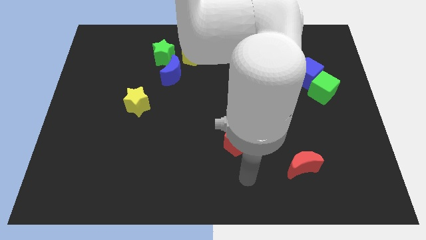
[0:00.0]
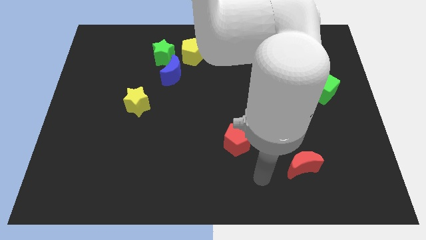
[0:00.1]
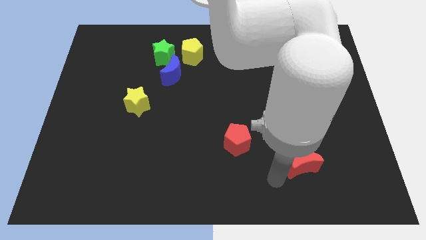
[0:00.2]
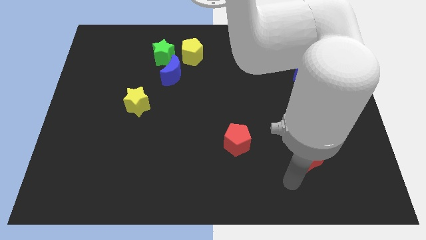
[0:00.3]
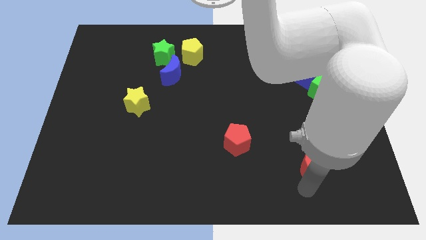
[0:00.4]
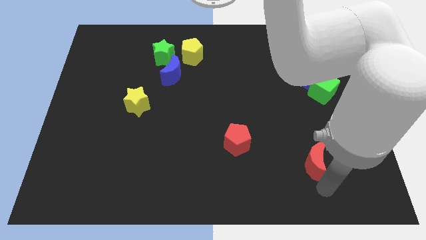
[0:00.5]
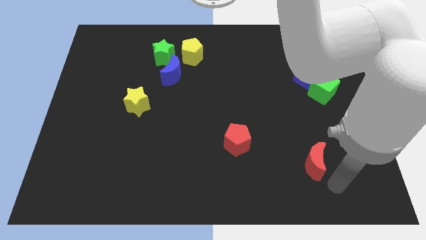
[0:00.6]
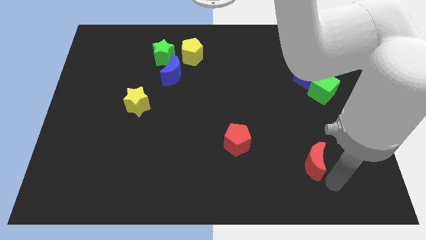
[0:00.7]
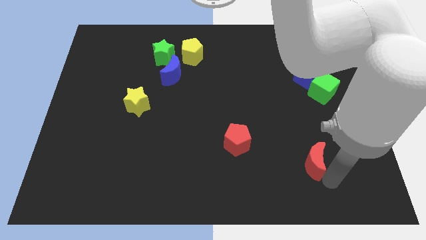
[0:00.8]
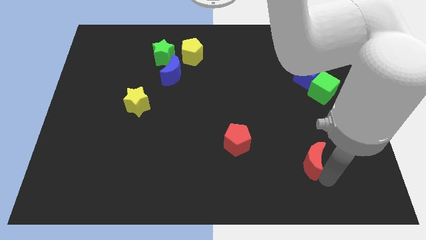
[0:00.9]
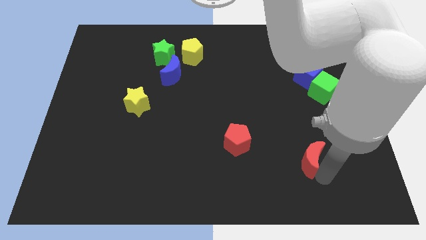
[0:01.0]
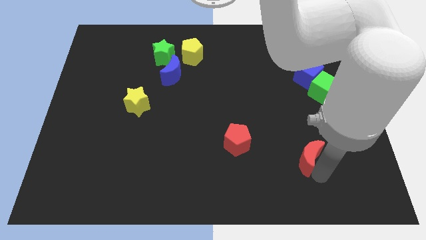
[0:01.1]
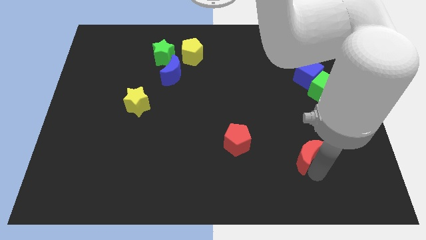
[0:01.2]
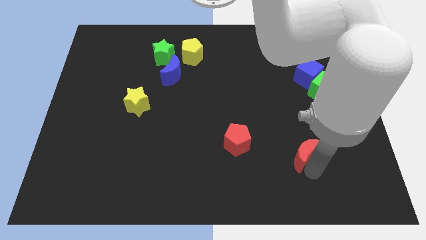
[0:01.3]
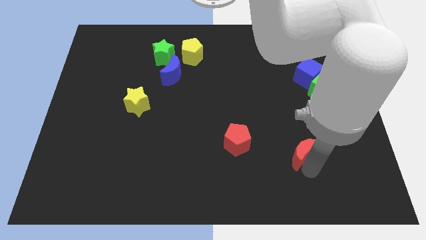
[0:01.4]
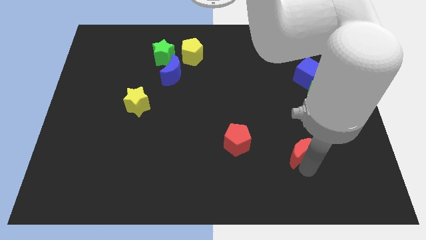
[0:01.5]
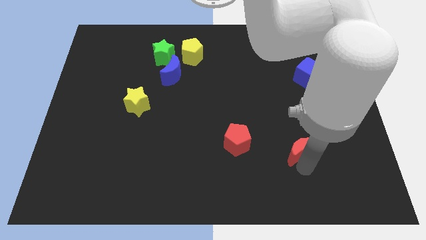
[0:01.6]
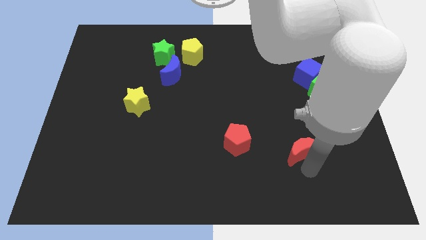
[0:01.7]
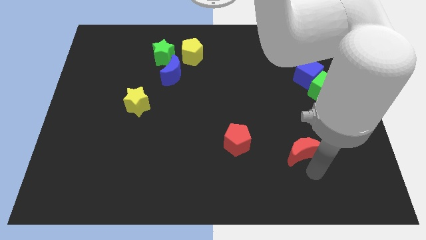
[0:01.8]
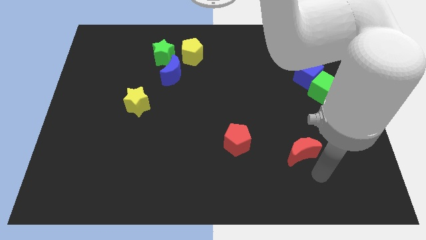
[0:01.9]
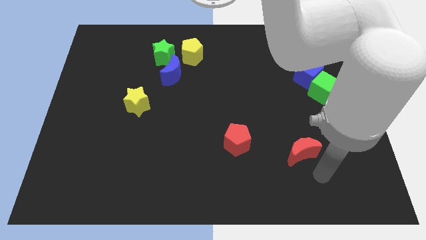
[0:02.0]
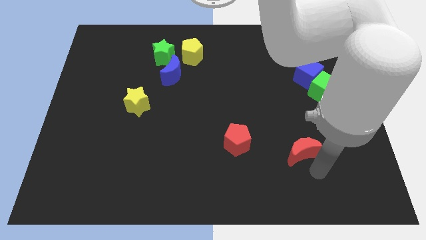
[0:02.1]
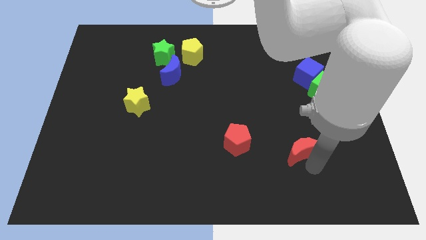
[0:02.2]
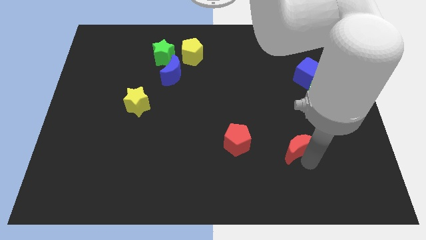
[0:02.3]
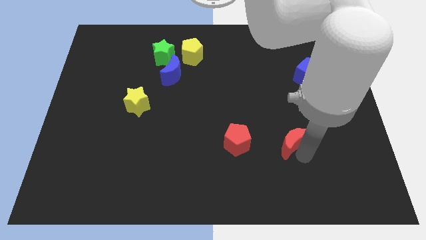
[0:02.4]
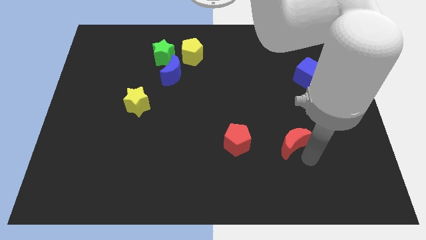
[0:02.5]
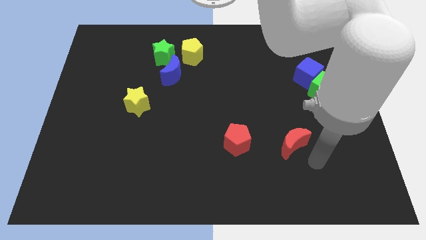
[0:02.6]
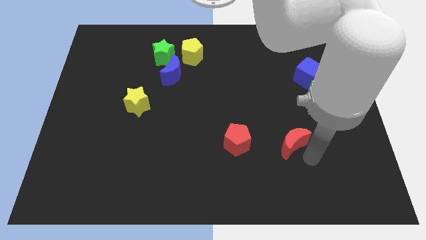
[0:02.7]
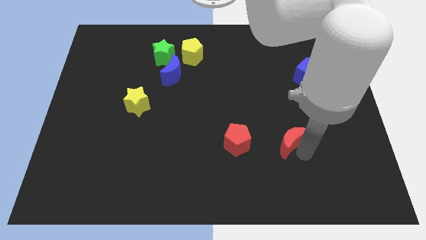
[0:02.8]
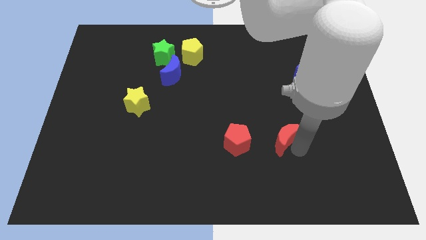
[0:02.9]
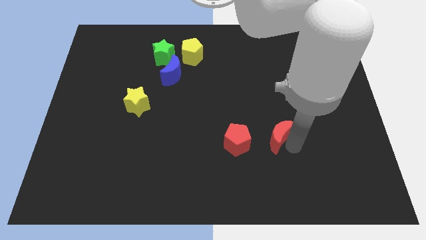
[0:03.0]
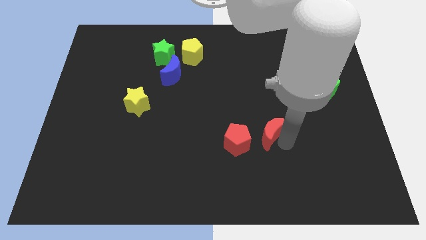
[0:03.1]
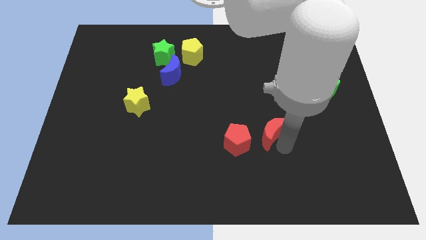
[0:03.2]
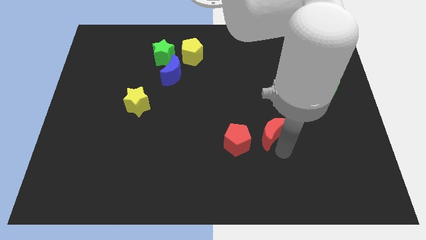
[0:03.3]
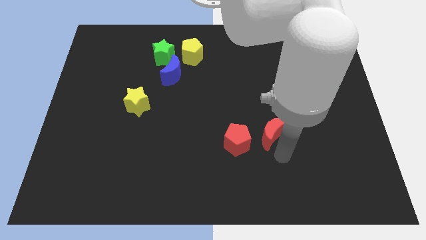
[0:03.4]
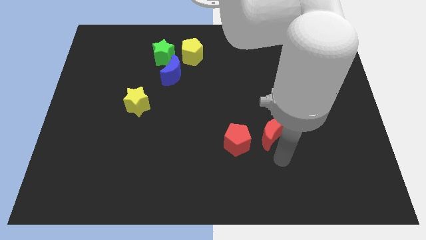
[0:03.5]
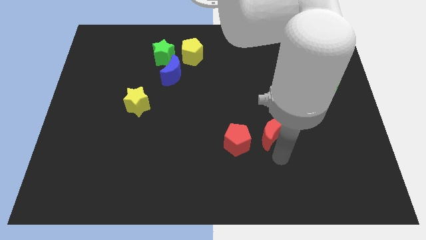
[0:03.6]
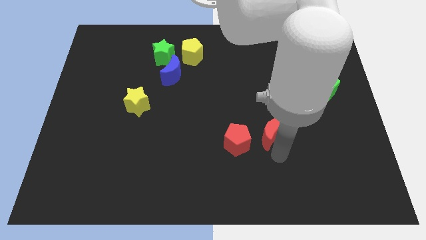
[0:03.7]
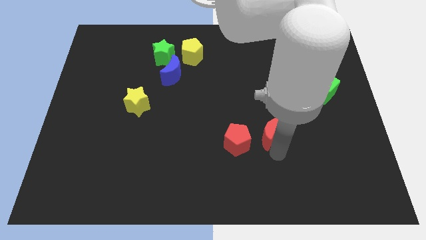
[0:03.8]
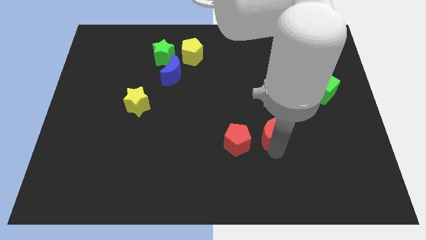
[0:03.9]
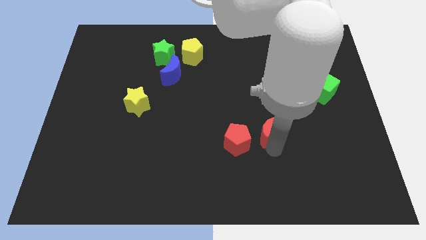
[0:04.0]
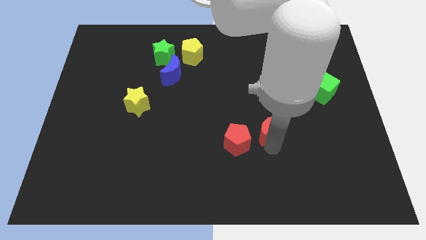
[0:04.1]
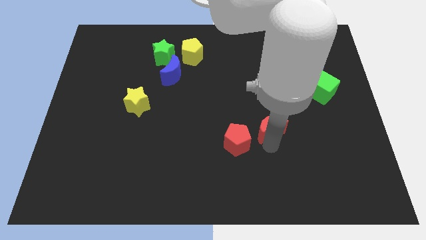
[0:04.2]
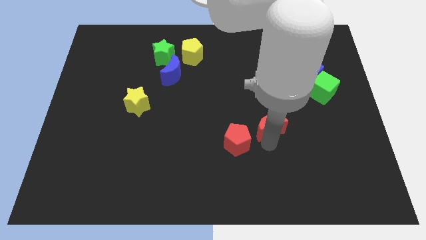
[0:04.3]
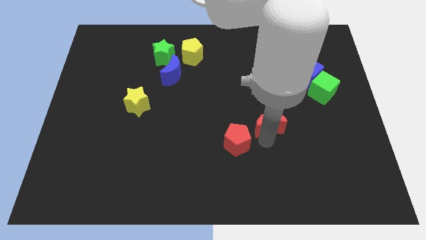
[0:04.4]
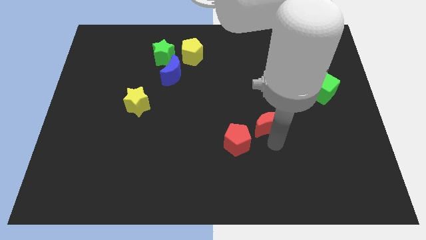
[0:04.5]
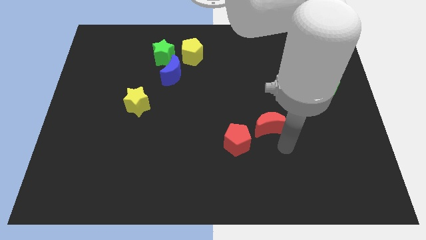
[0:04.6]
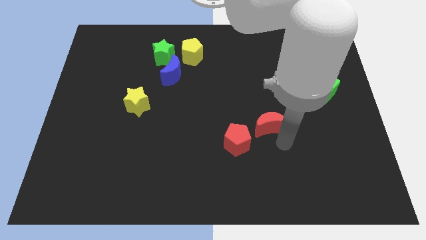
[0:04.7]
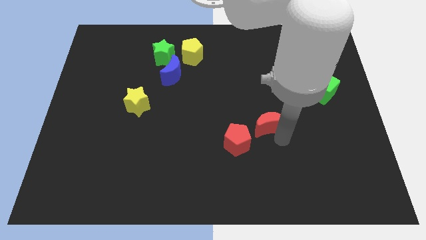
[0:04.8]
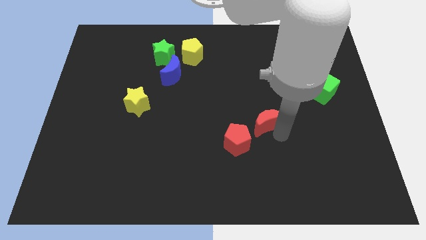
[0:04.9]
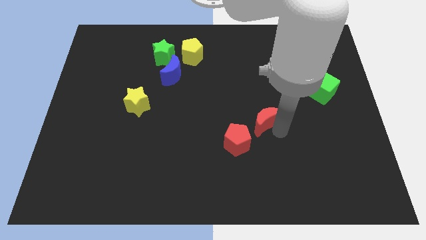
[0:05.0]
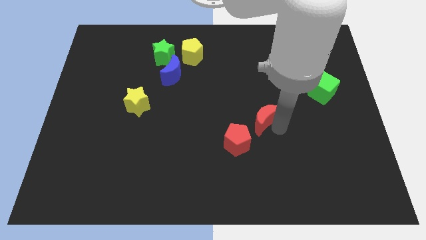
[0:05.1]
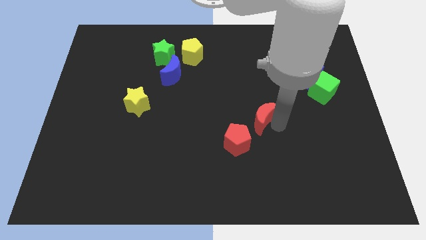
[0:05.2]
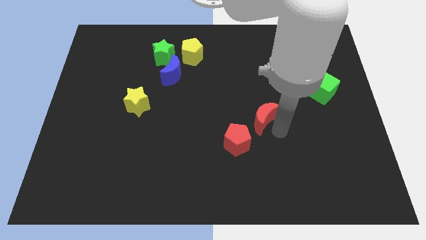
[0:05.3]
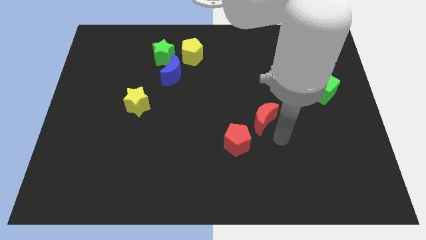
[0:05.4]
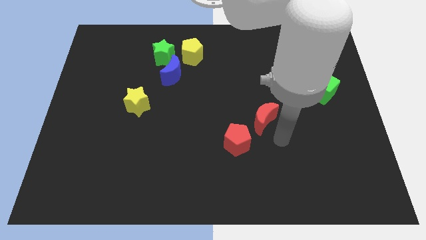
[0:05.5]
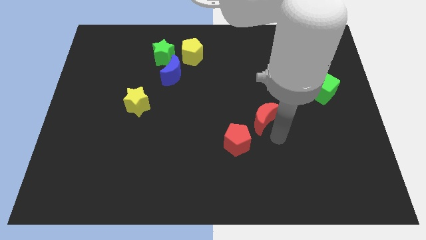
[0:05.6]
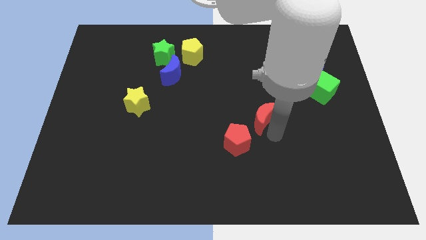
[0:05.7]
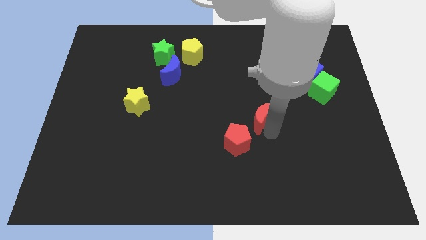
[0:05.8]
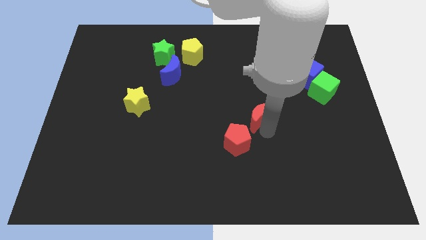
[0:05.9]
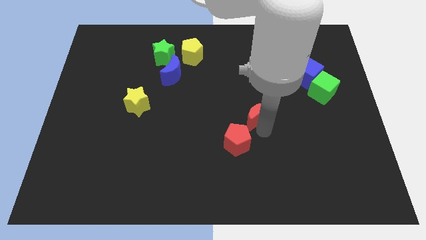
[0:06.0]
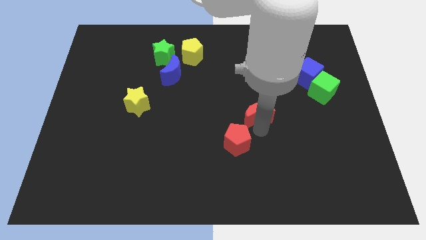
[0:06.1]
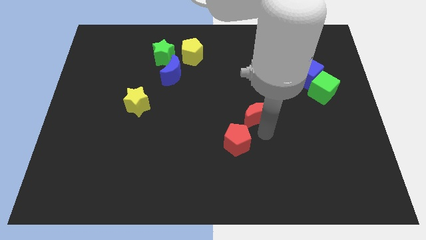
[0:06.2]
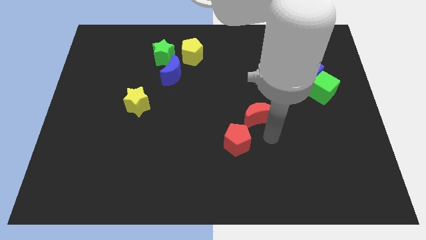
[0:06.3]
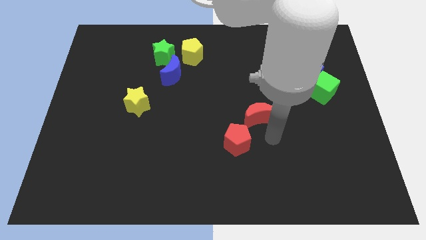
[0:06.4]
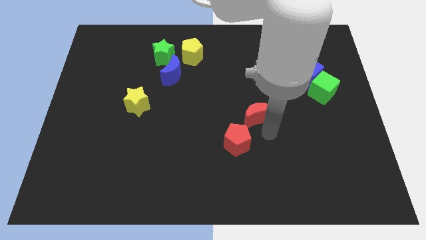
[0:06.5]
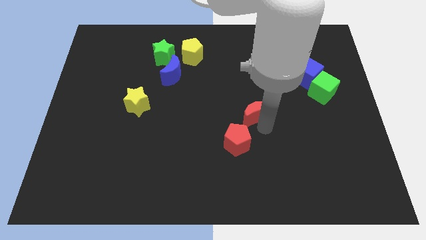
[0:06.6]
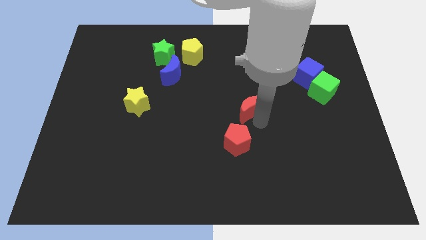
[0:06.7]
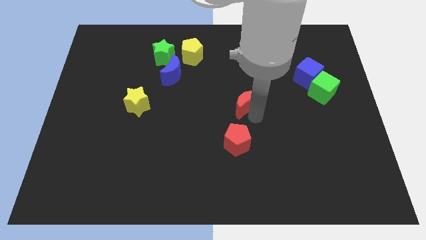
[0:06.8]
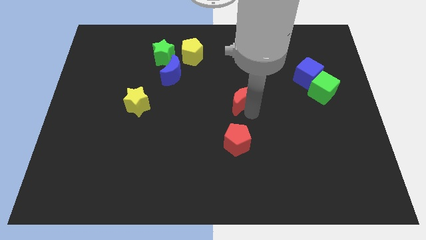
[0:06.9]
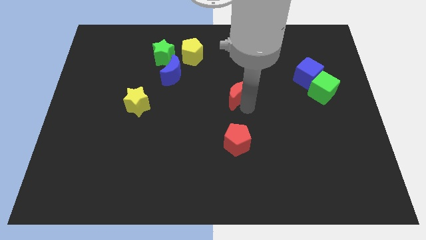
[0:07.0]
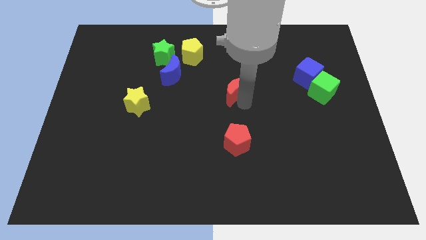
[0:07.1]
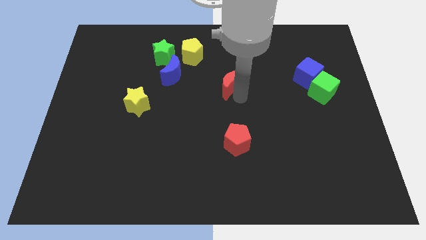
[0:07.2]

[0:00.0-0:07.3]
slide the red moon right of the blue moon

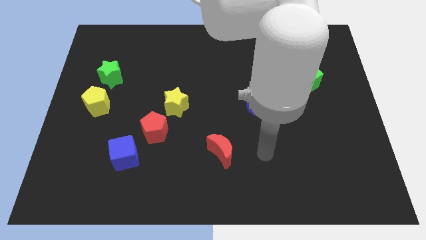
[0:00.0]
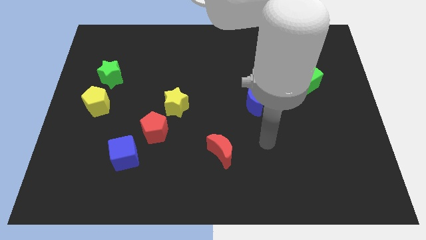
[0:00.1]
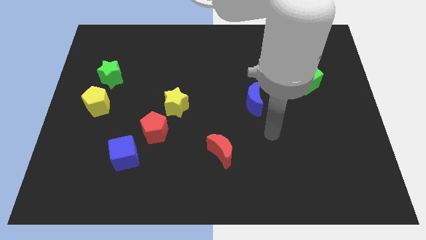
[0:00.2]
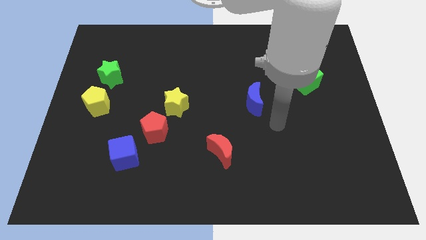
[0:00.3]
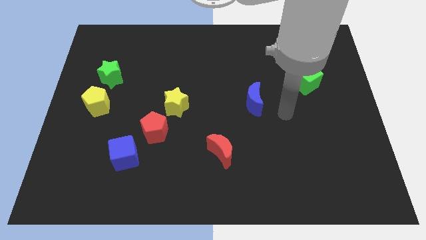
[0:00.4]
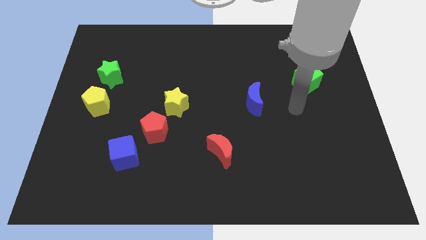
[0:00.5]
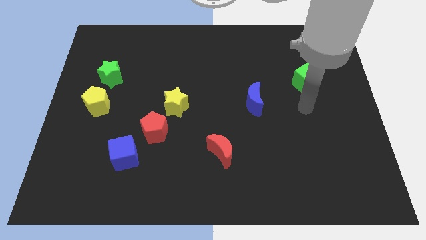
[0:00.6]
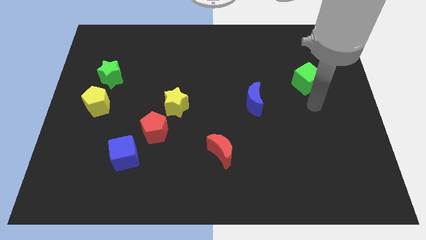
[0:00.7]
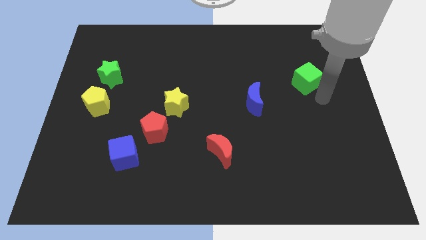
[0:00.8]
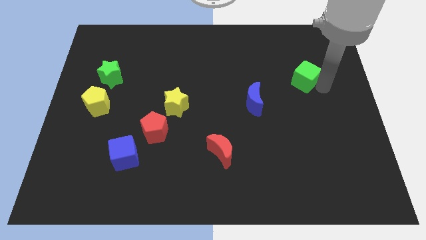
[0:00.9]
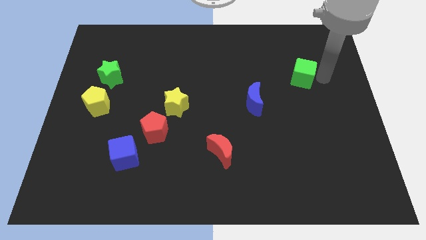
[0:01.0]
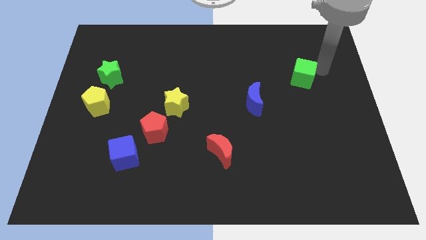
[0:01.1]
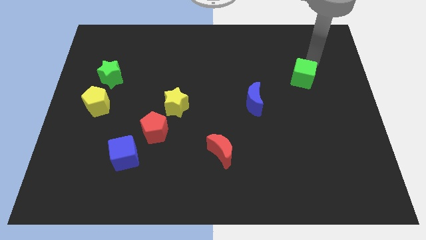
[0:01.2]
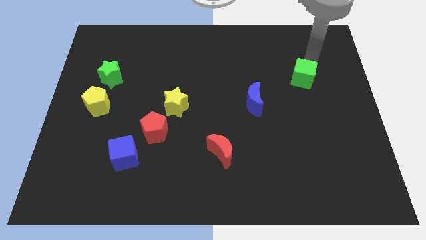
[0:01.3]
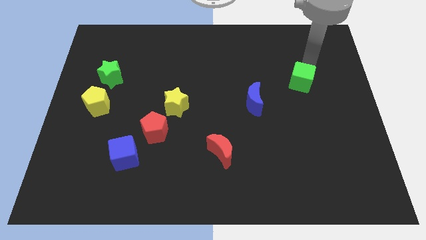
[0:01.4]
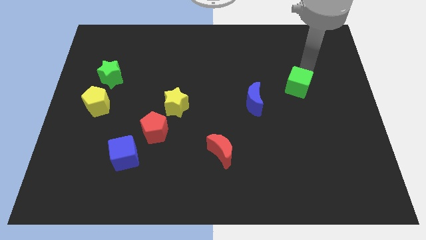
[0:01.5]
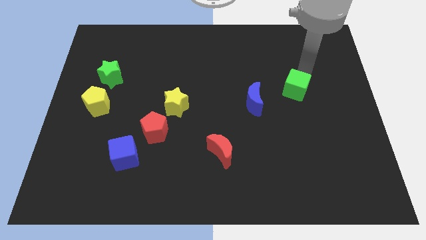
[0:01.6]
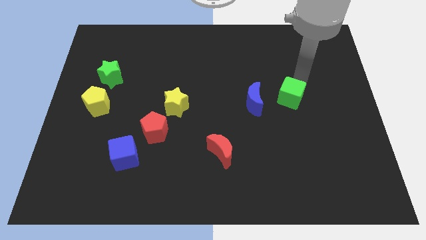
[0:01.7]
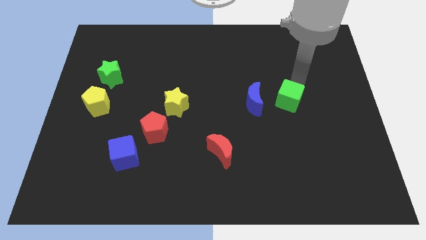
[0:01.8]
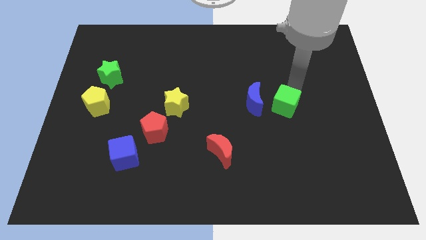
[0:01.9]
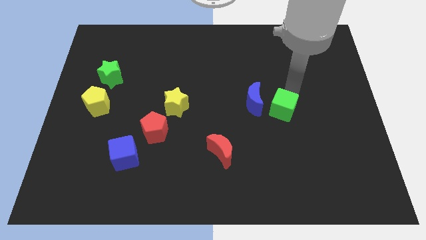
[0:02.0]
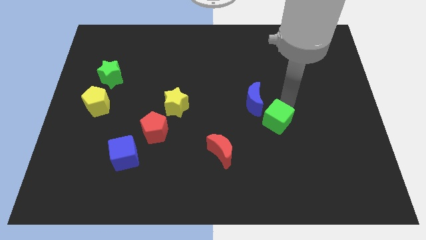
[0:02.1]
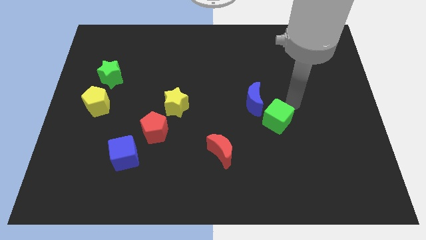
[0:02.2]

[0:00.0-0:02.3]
move the green cube to the bottom side of the blue moon
